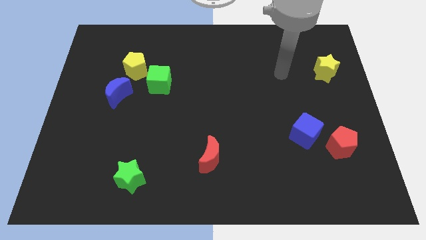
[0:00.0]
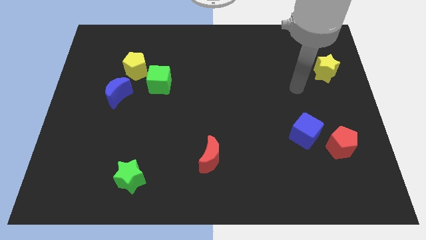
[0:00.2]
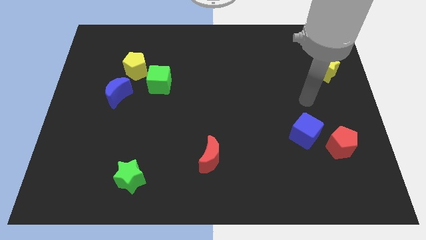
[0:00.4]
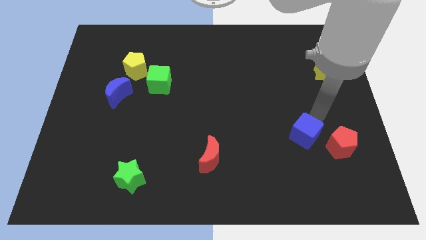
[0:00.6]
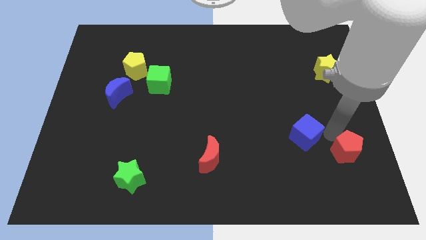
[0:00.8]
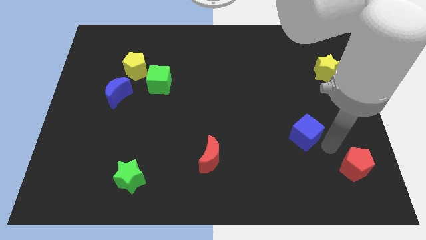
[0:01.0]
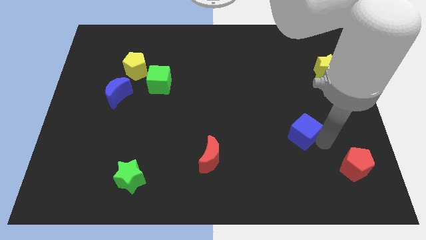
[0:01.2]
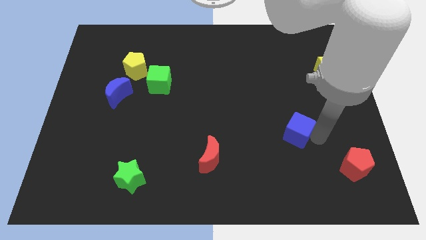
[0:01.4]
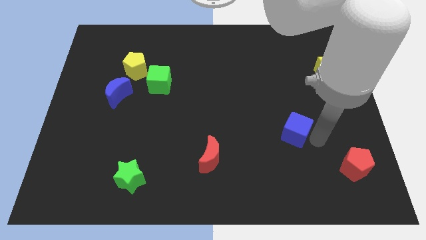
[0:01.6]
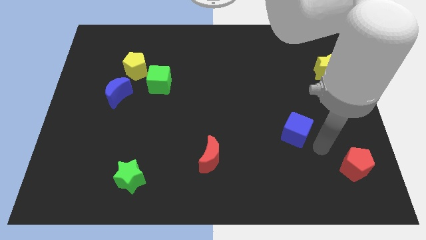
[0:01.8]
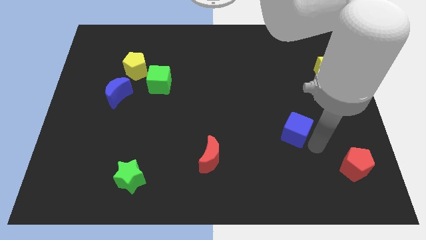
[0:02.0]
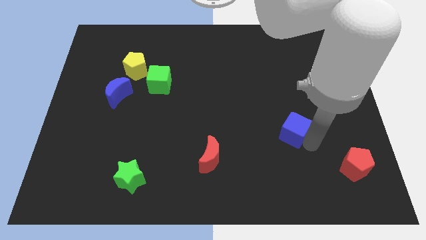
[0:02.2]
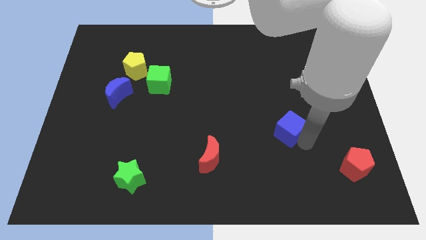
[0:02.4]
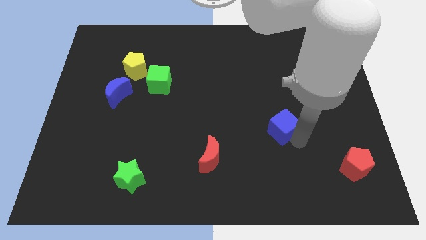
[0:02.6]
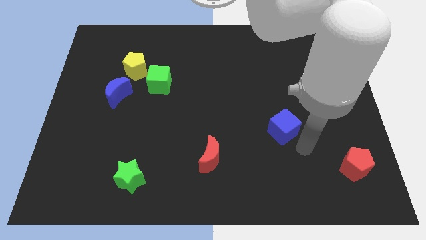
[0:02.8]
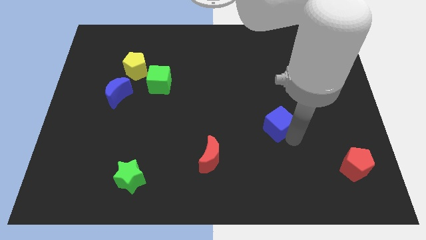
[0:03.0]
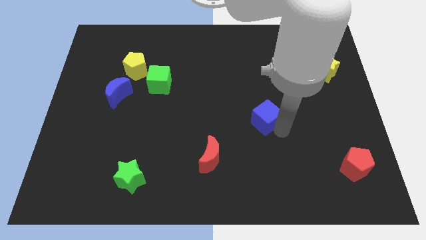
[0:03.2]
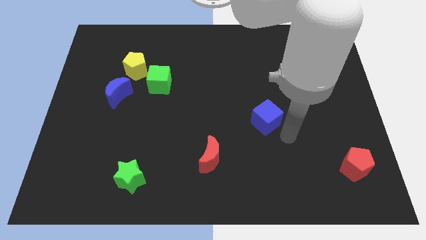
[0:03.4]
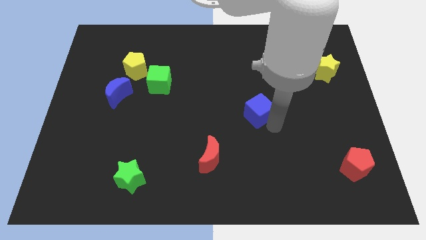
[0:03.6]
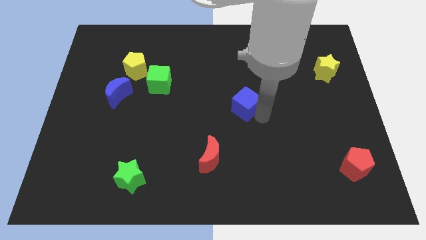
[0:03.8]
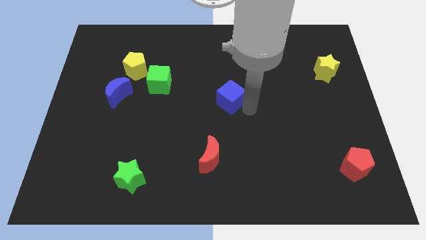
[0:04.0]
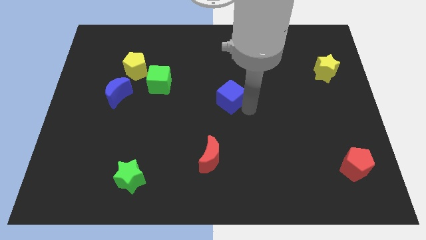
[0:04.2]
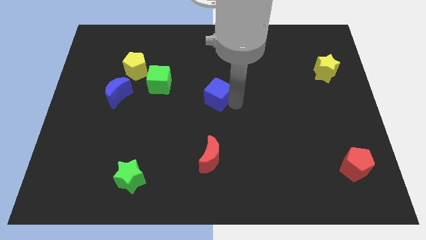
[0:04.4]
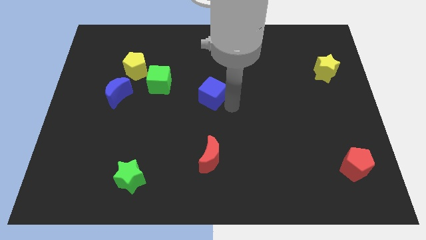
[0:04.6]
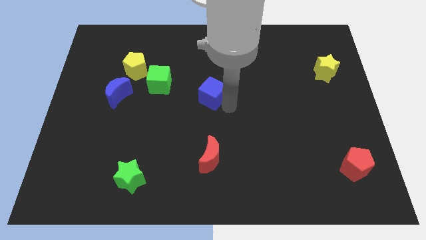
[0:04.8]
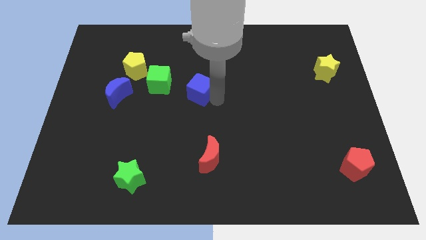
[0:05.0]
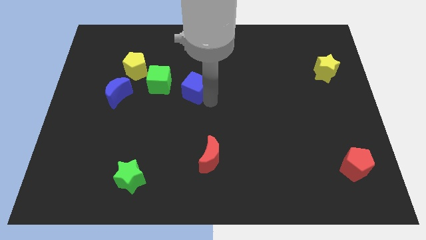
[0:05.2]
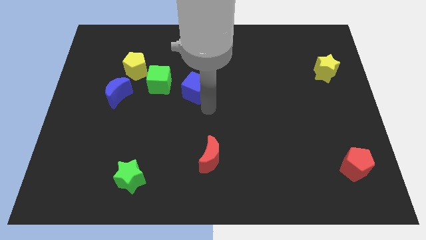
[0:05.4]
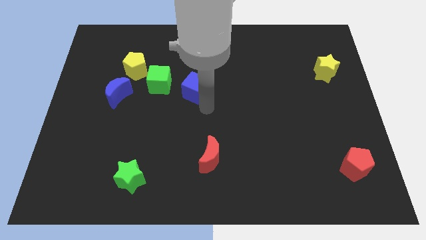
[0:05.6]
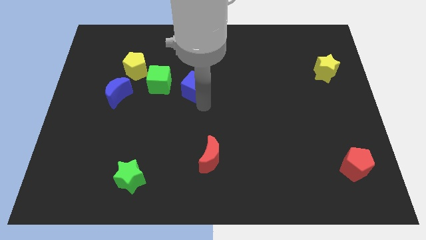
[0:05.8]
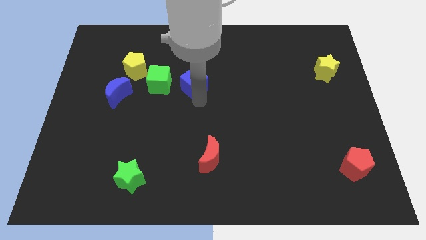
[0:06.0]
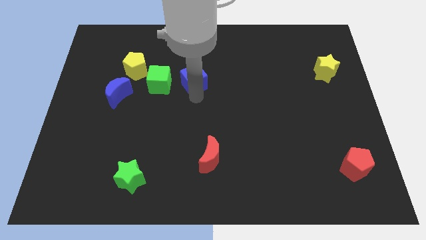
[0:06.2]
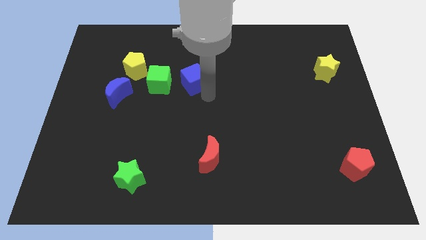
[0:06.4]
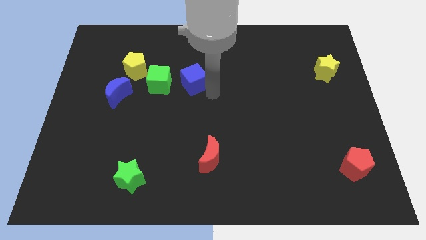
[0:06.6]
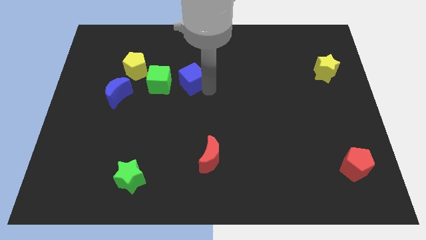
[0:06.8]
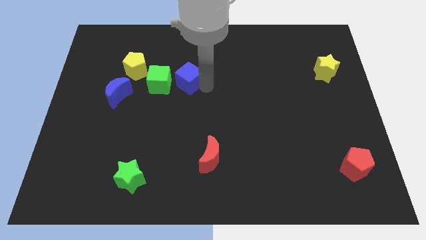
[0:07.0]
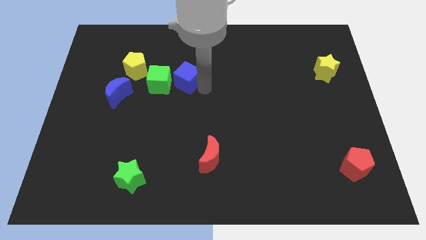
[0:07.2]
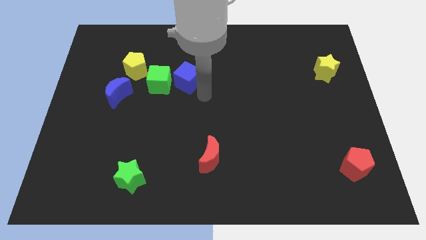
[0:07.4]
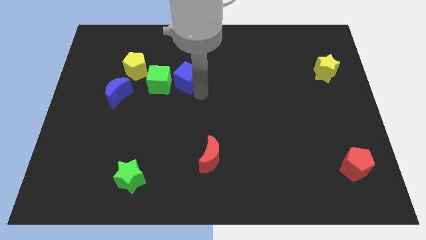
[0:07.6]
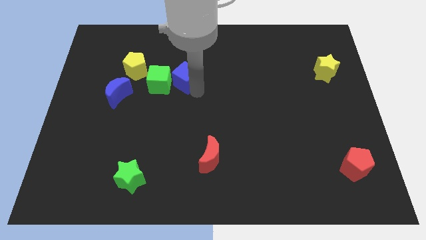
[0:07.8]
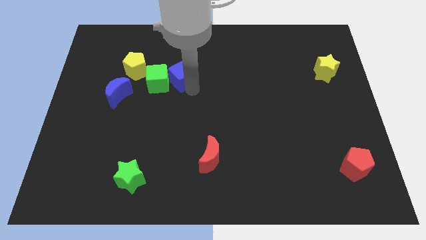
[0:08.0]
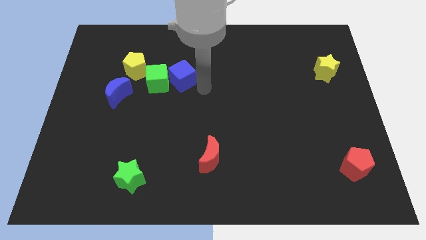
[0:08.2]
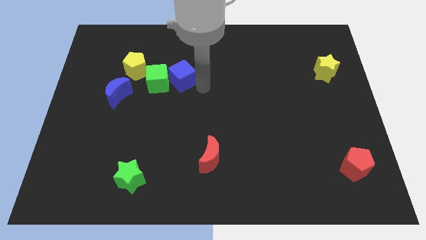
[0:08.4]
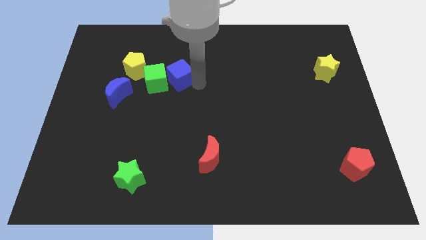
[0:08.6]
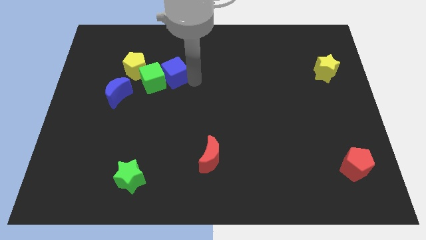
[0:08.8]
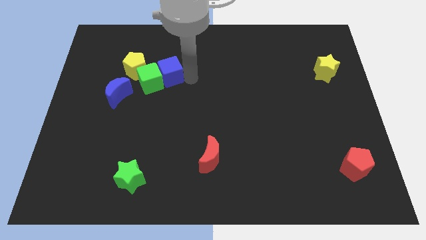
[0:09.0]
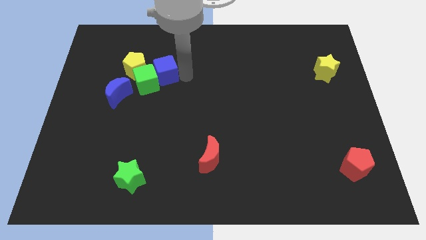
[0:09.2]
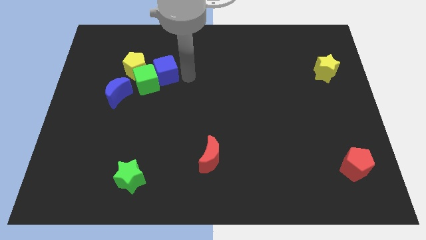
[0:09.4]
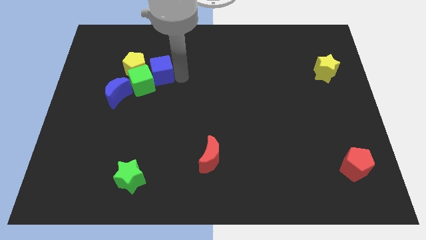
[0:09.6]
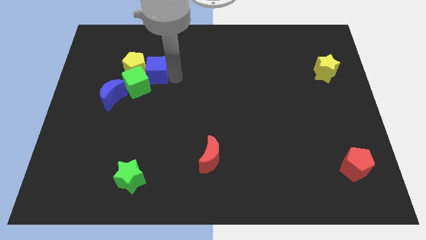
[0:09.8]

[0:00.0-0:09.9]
move the blue cube towards the yellow pentagon

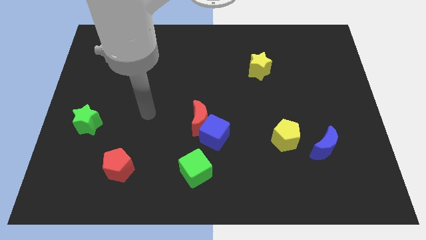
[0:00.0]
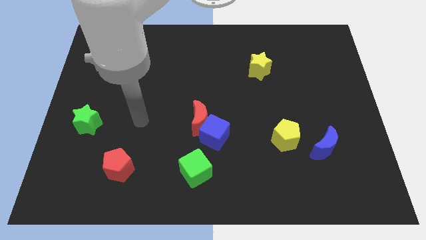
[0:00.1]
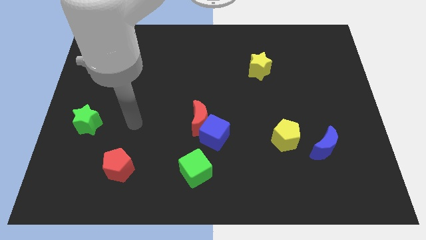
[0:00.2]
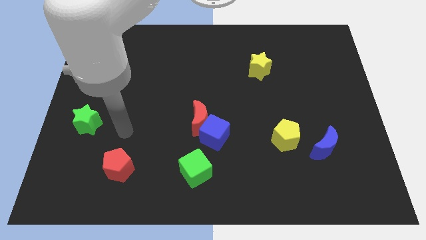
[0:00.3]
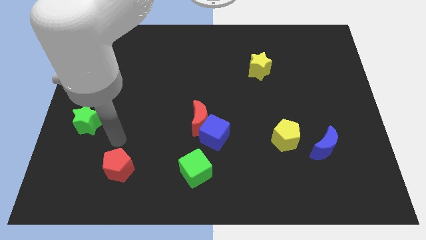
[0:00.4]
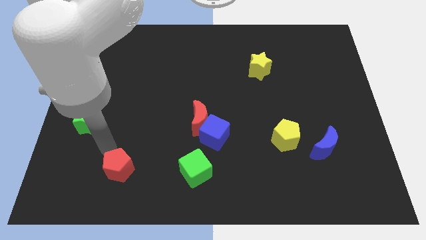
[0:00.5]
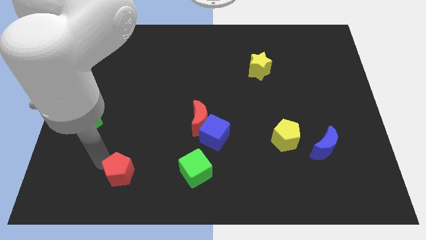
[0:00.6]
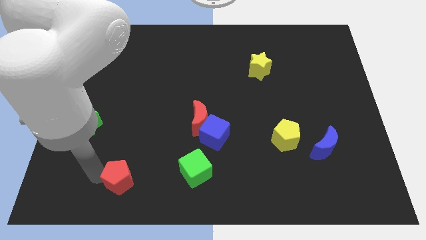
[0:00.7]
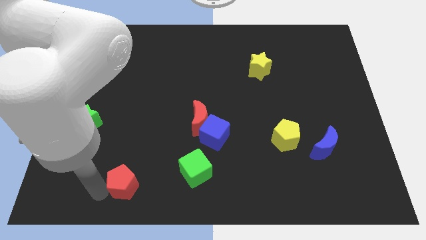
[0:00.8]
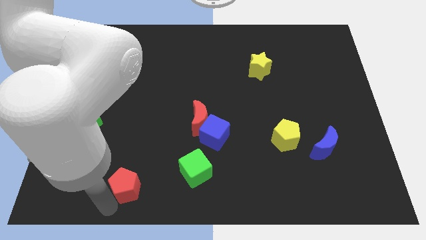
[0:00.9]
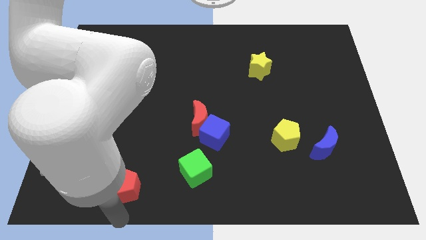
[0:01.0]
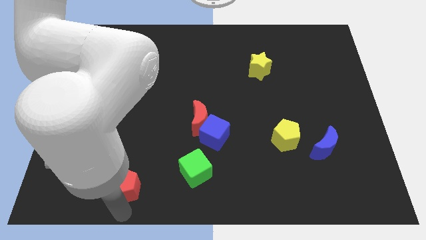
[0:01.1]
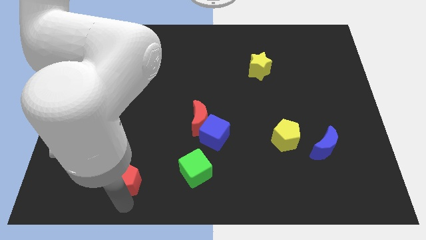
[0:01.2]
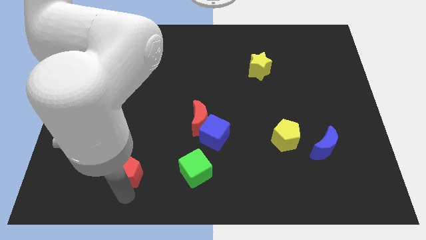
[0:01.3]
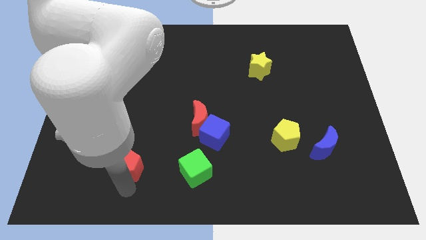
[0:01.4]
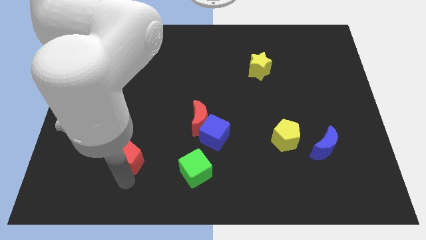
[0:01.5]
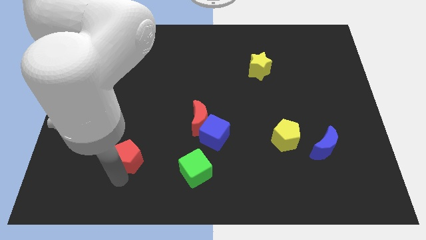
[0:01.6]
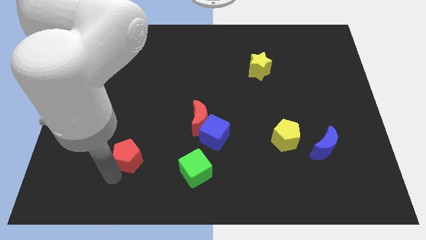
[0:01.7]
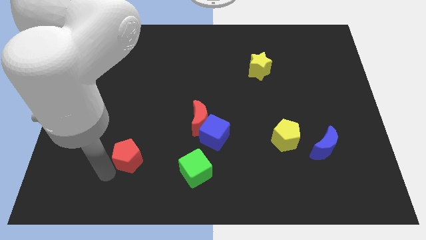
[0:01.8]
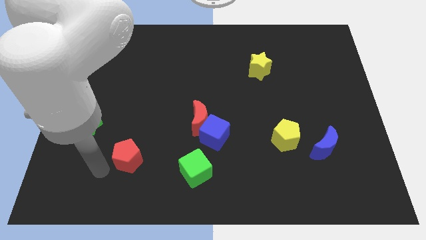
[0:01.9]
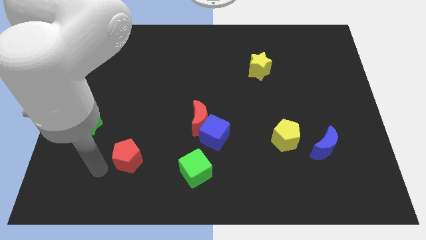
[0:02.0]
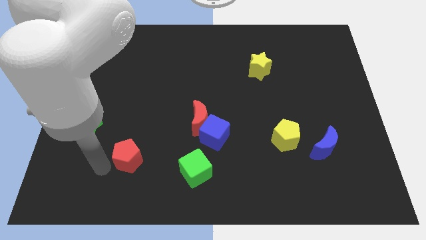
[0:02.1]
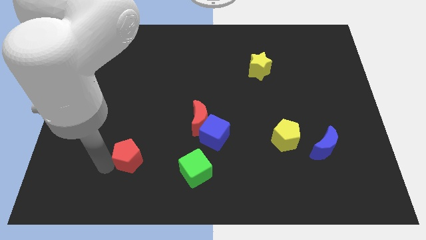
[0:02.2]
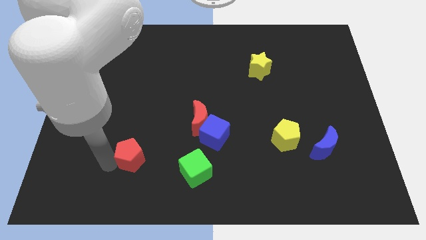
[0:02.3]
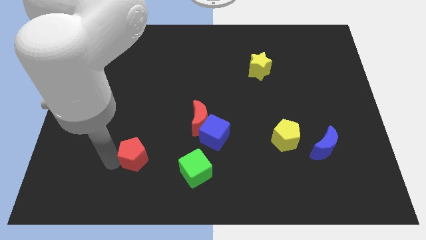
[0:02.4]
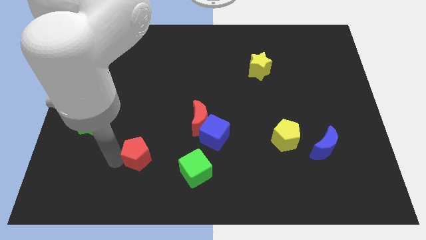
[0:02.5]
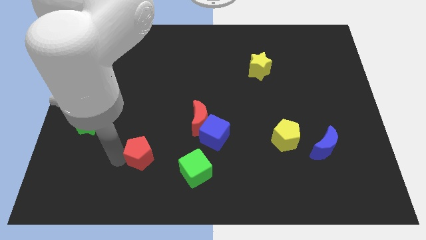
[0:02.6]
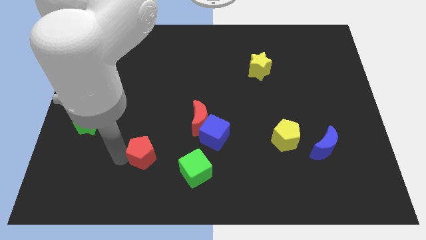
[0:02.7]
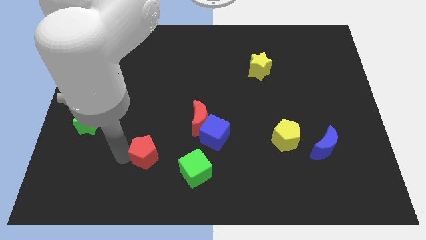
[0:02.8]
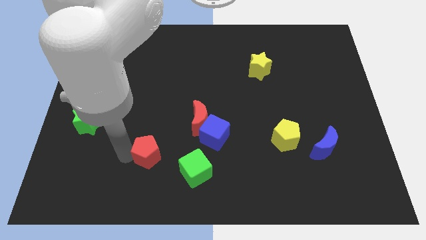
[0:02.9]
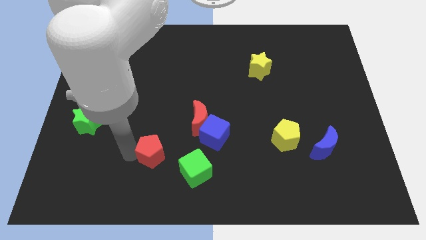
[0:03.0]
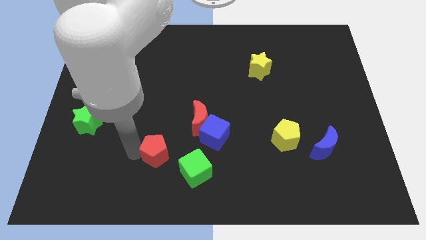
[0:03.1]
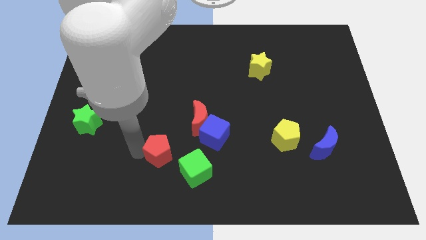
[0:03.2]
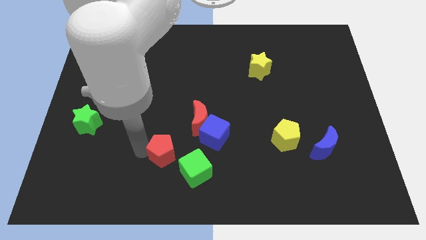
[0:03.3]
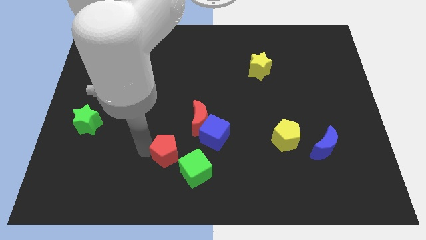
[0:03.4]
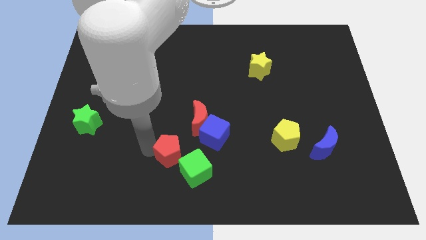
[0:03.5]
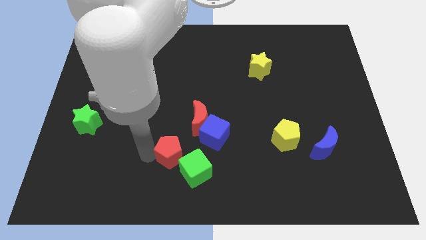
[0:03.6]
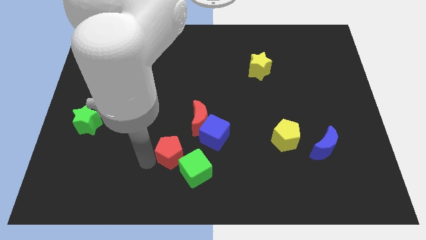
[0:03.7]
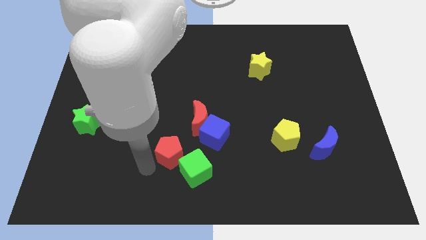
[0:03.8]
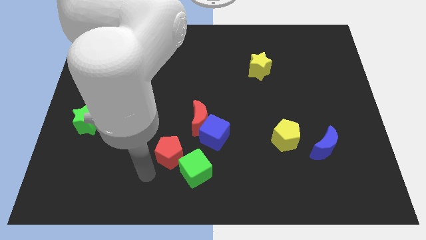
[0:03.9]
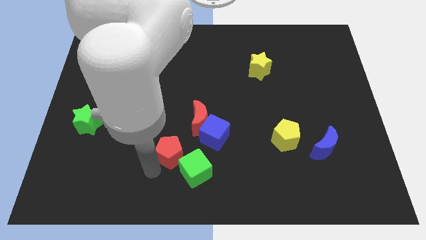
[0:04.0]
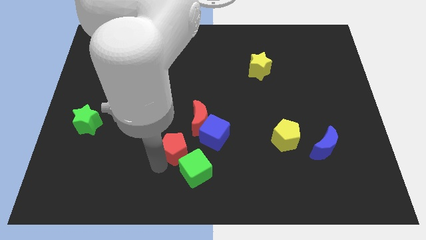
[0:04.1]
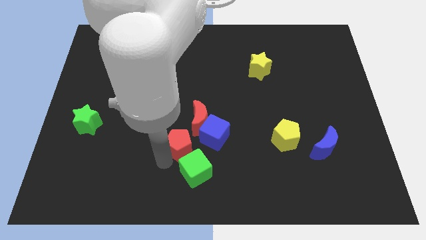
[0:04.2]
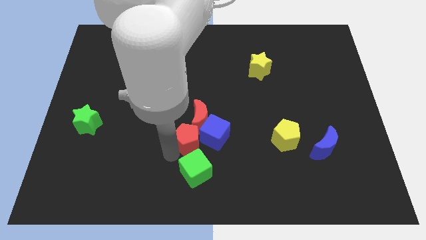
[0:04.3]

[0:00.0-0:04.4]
put the red pentagon close to the blue cube
